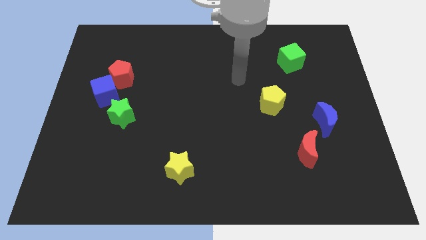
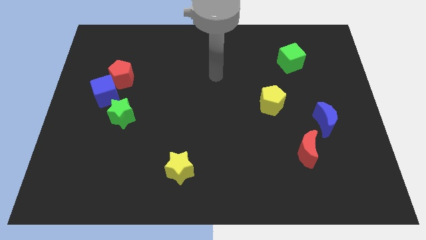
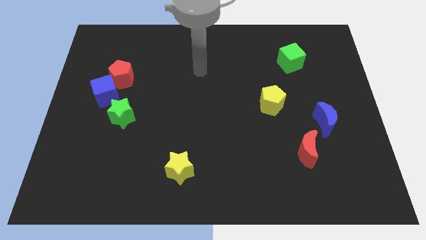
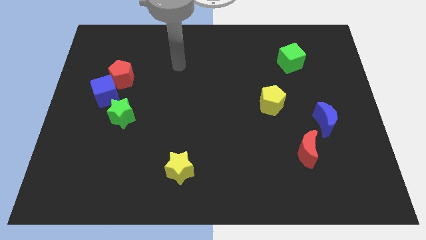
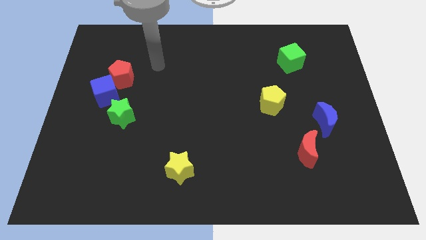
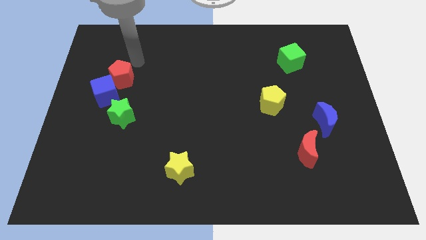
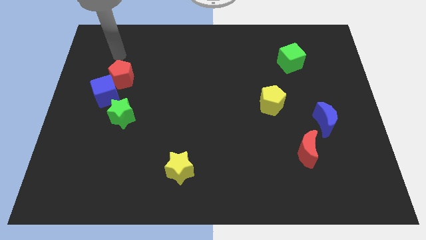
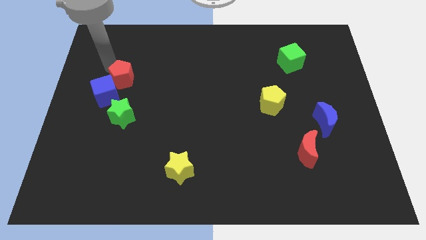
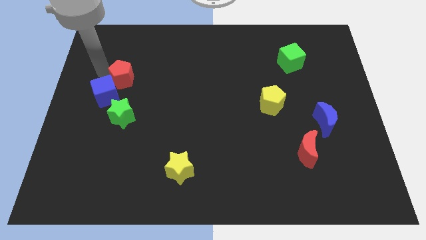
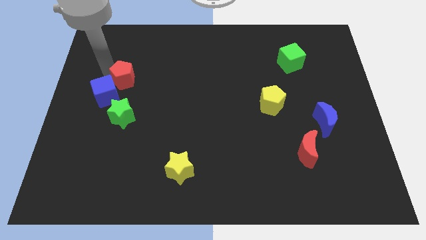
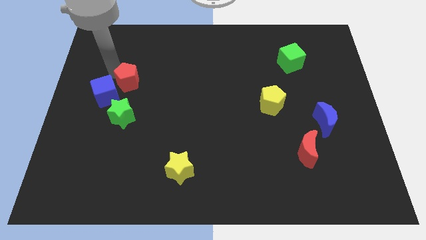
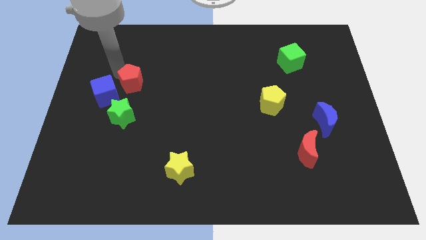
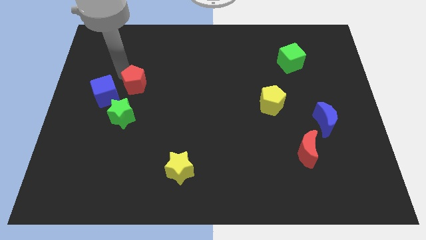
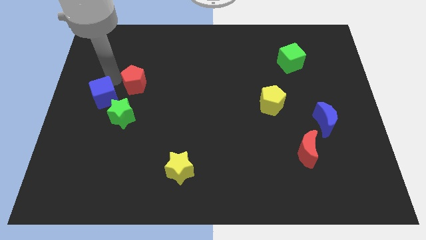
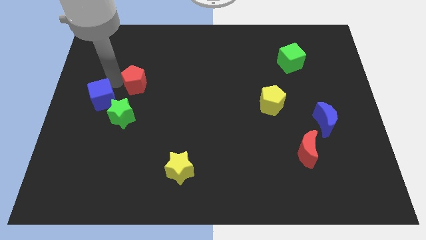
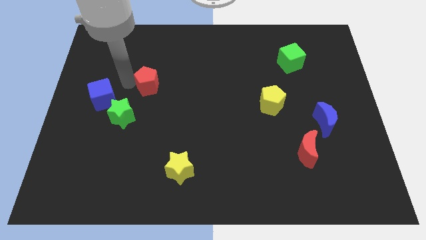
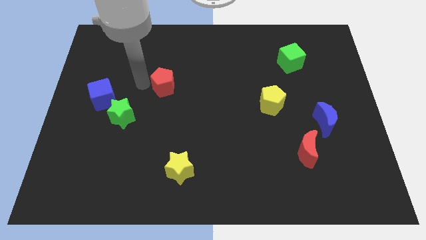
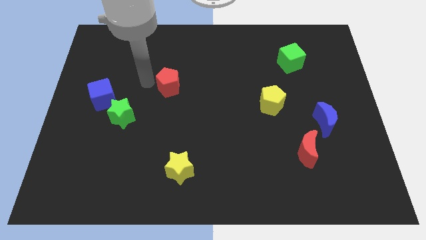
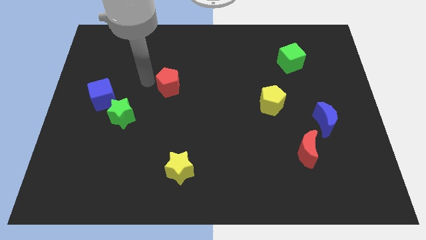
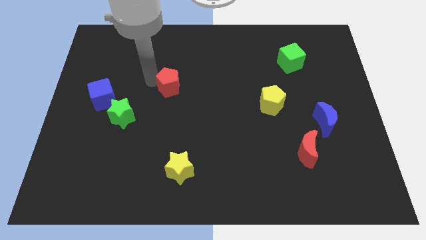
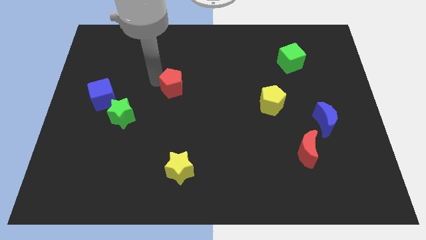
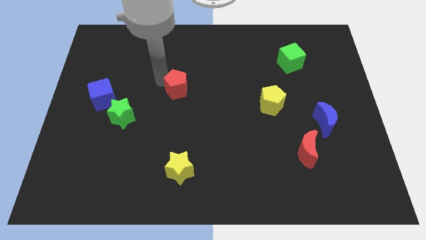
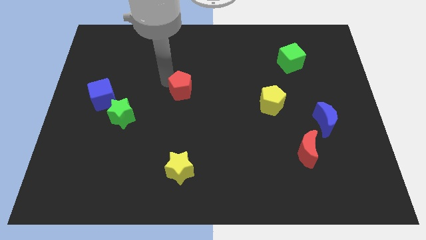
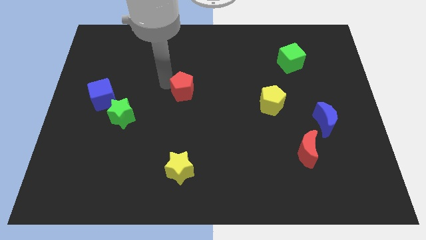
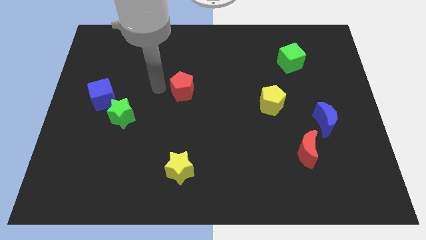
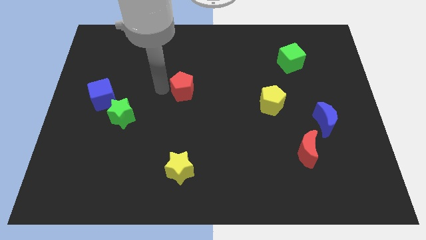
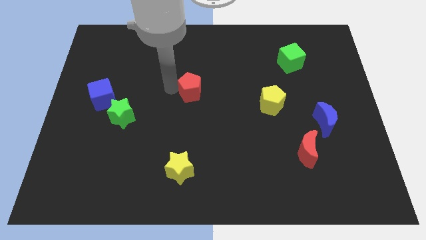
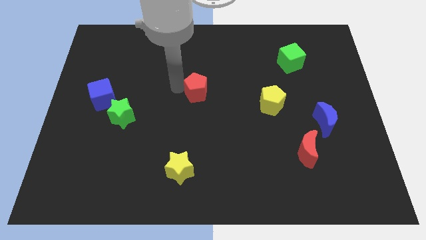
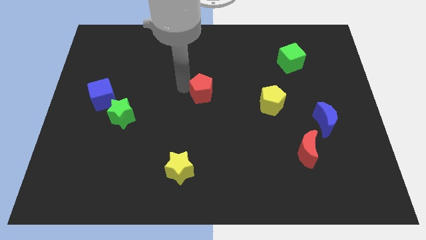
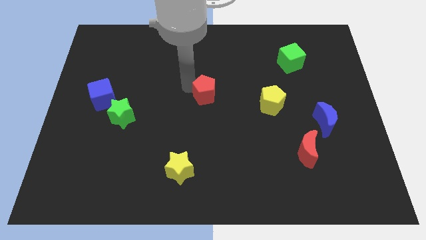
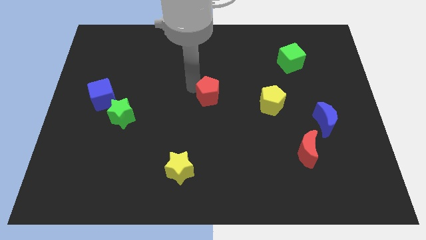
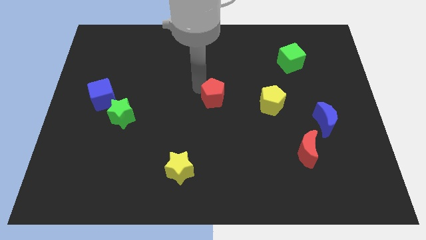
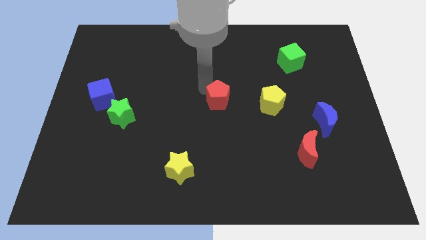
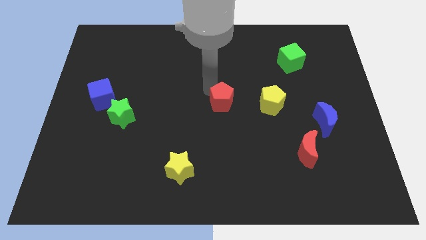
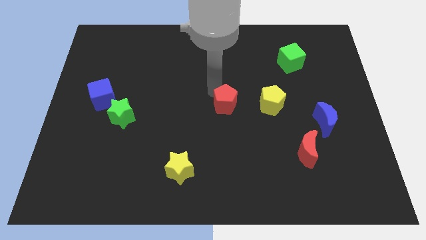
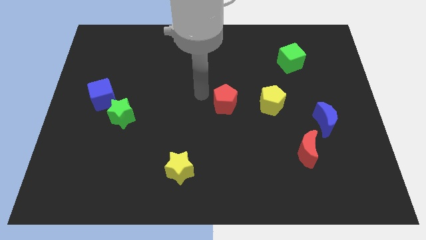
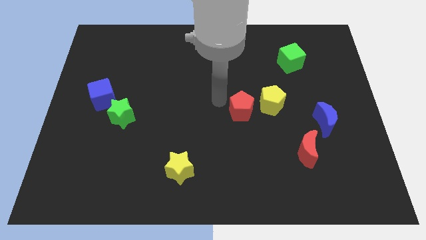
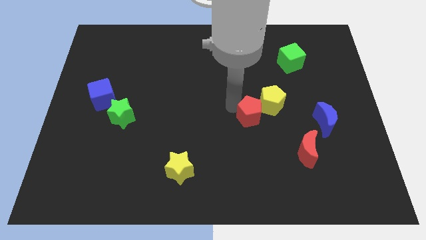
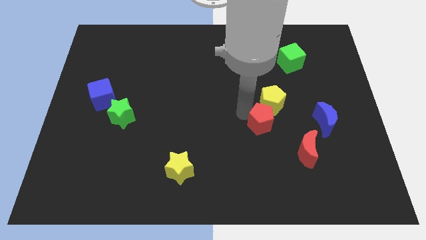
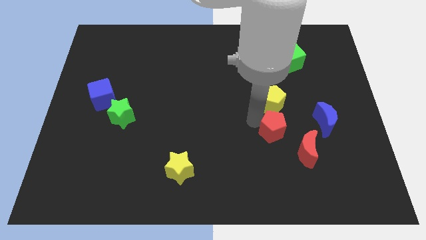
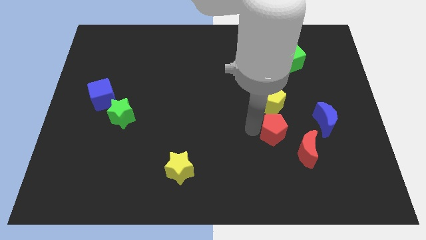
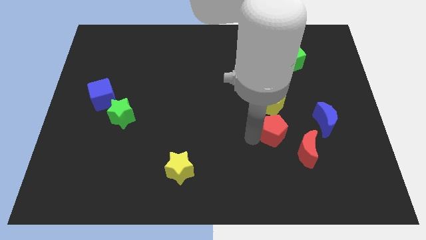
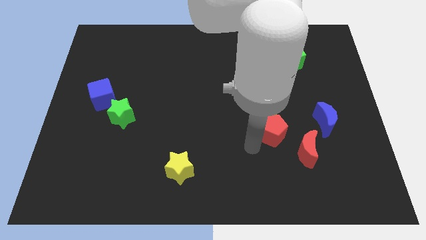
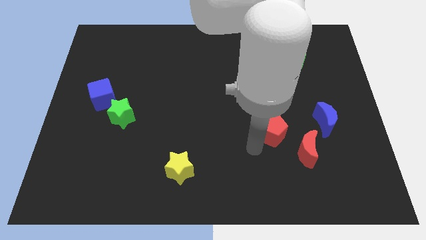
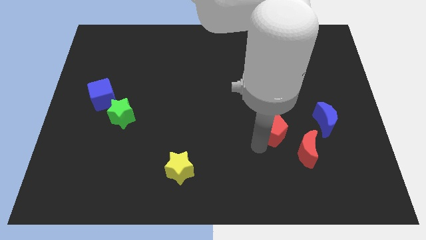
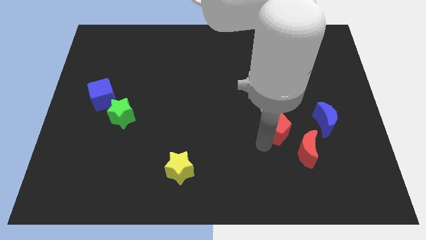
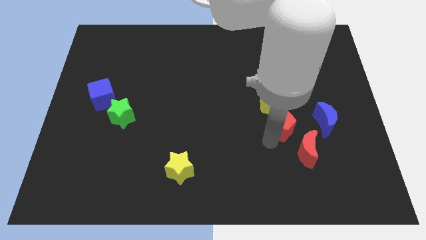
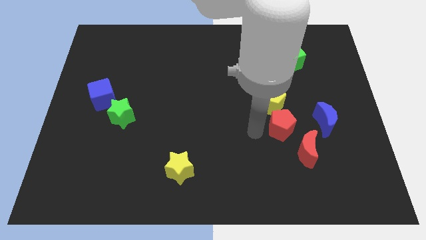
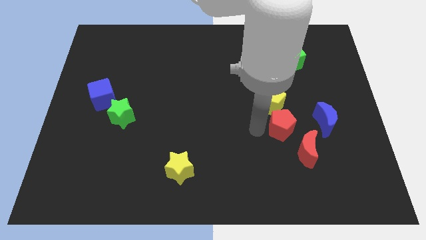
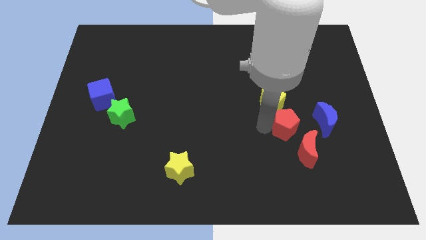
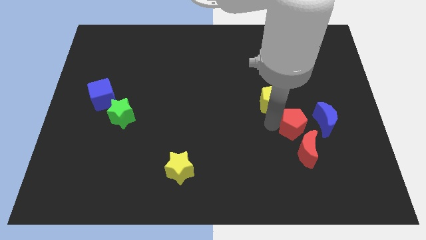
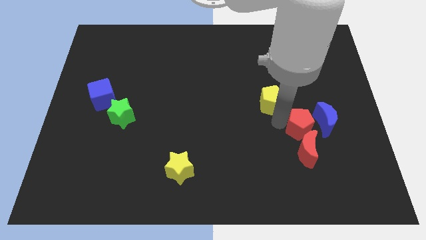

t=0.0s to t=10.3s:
push the red pentagon next to the blue moon

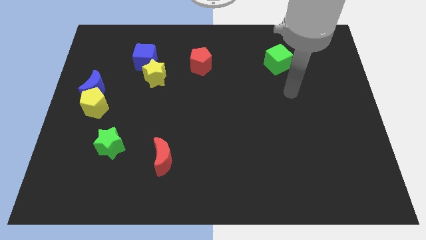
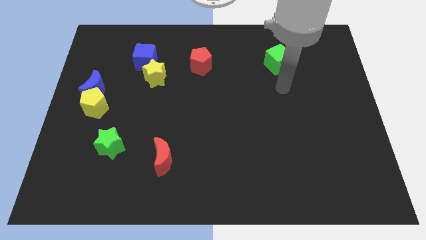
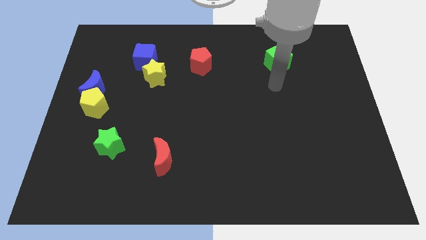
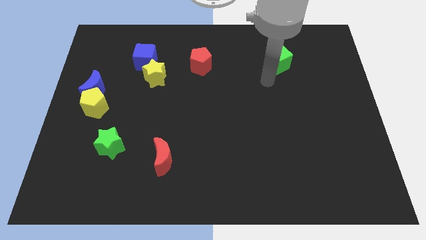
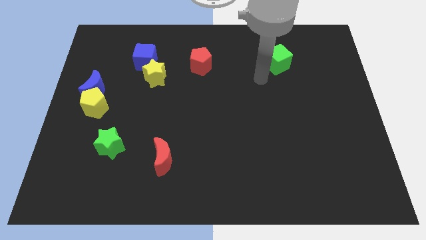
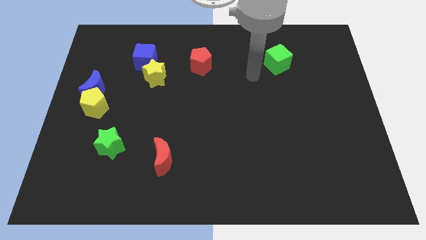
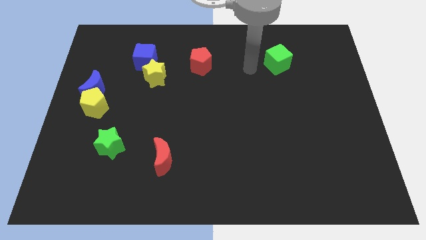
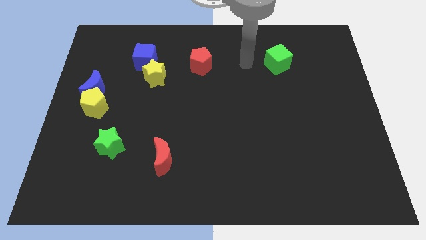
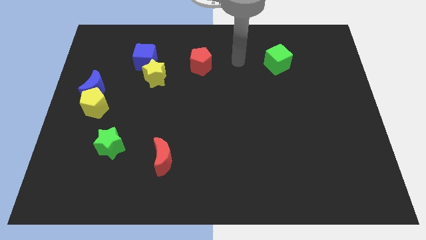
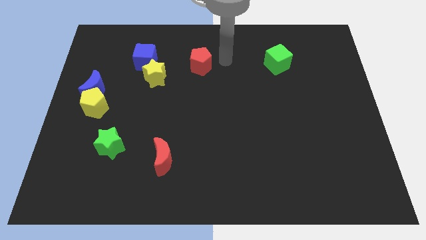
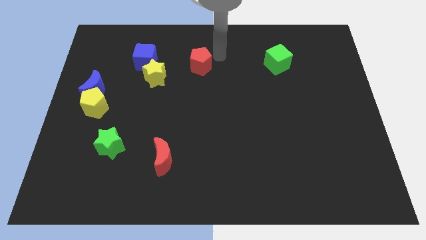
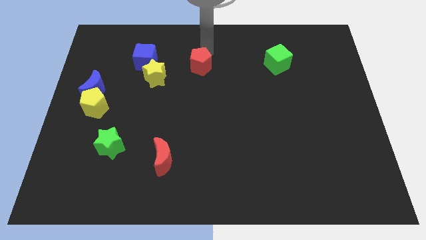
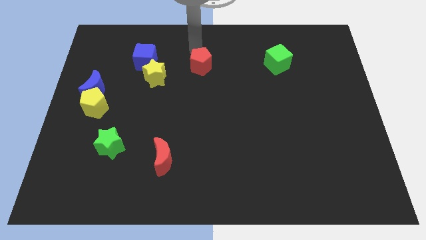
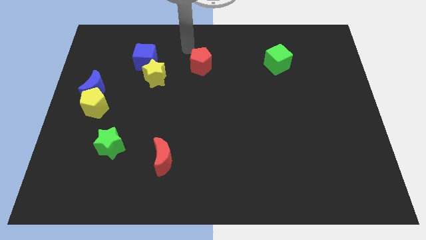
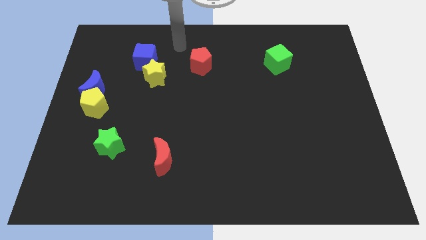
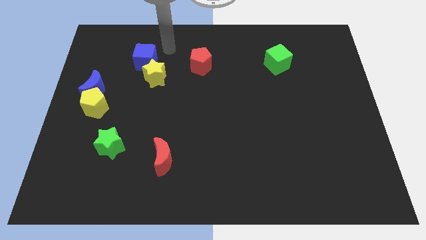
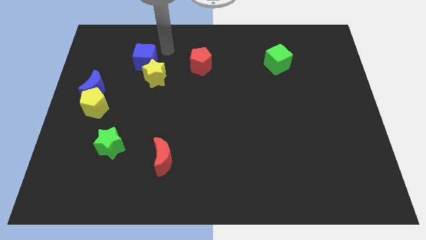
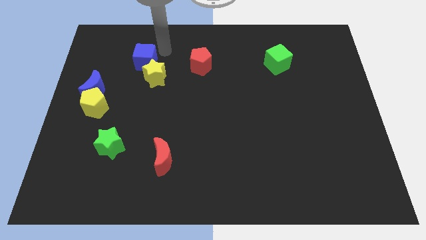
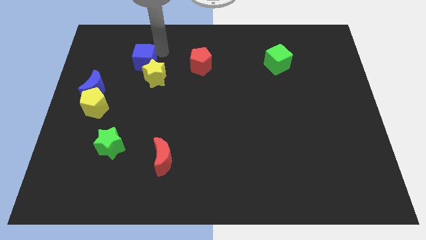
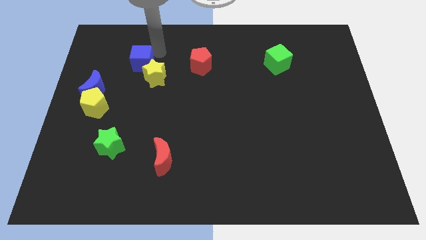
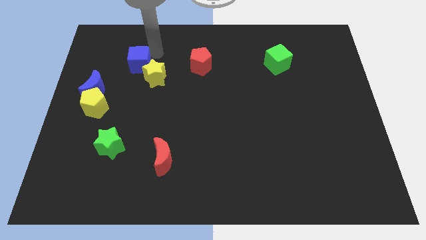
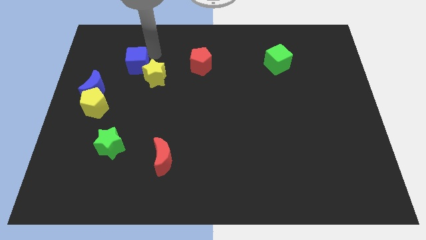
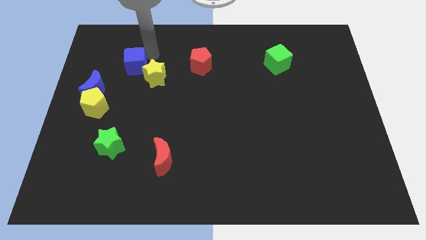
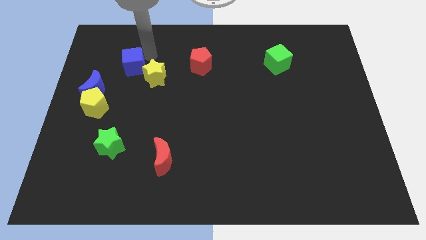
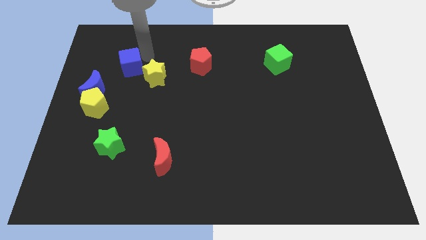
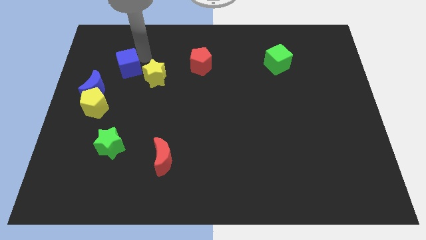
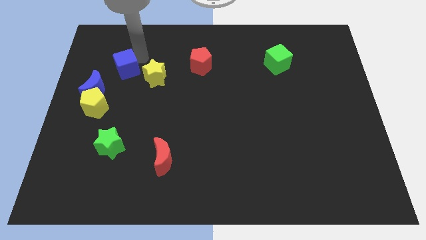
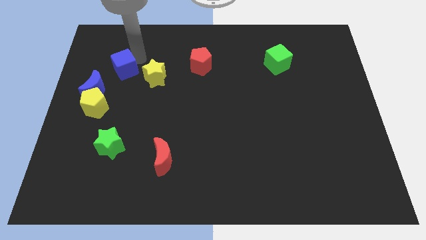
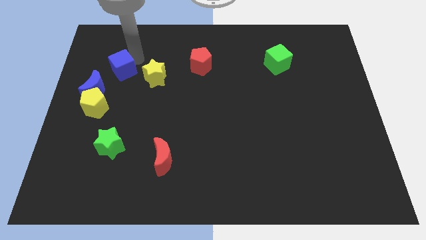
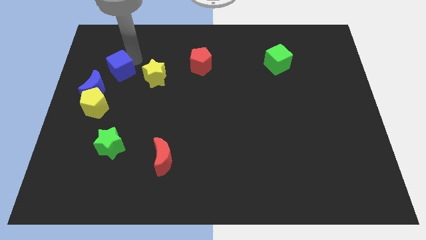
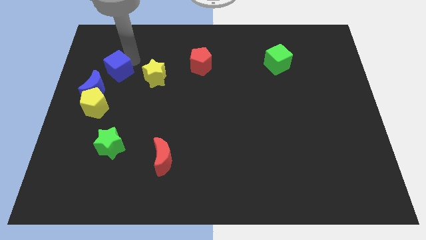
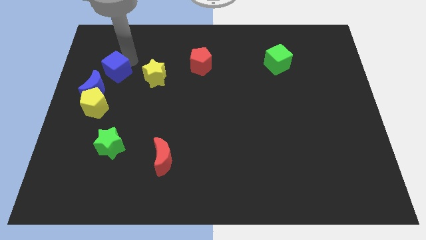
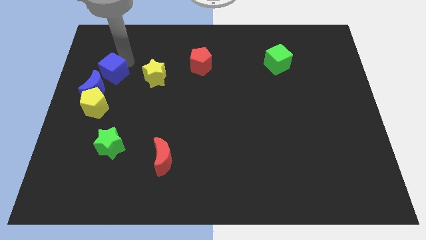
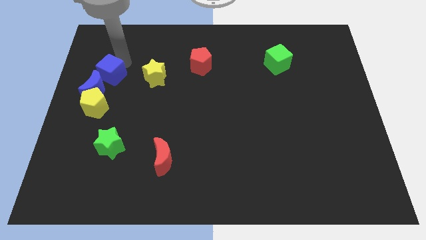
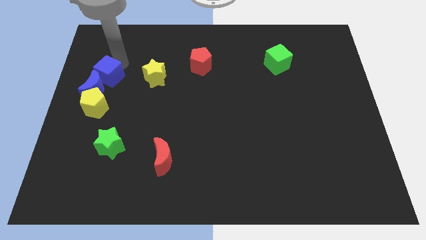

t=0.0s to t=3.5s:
push the blue cube next to the blue moon
